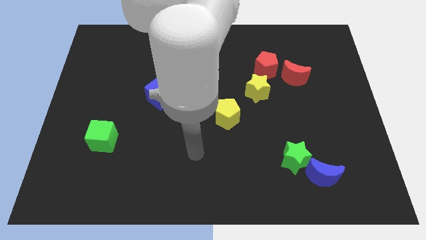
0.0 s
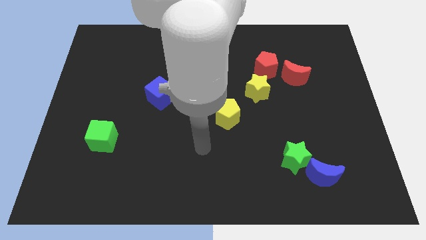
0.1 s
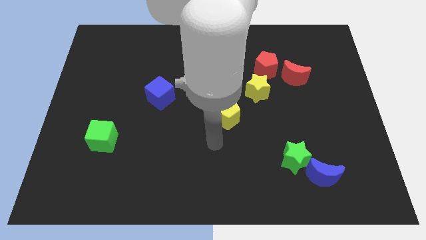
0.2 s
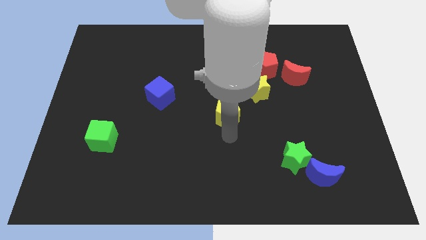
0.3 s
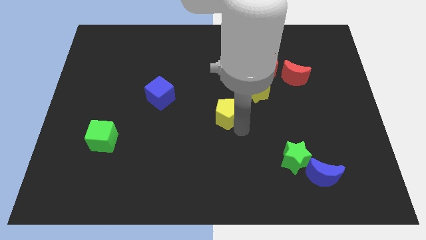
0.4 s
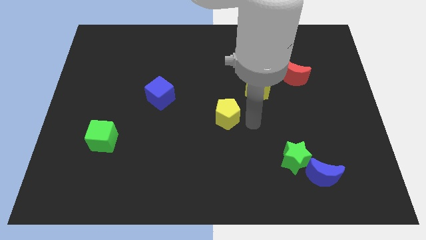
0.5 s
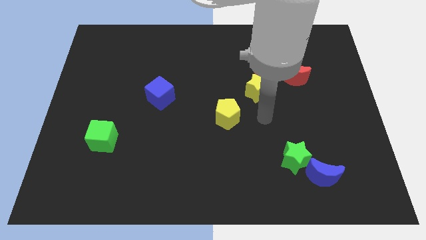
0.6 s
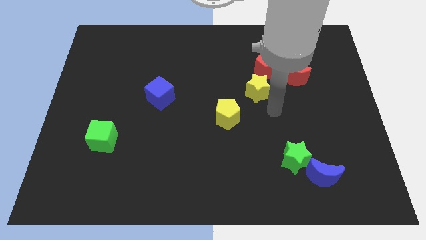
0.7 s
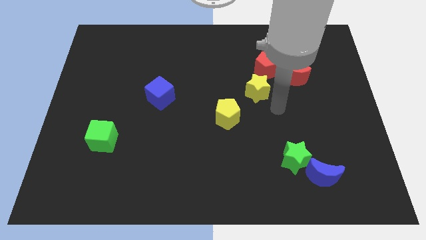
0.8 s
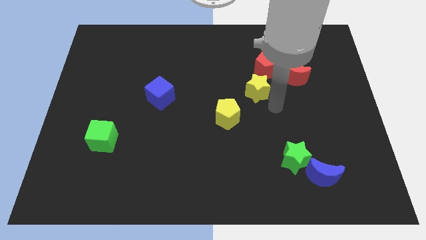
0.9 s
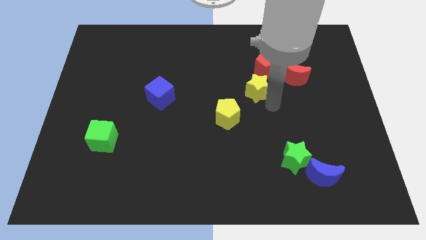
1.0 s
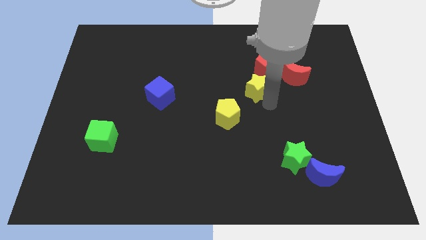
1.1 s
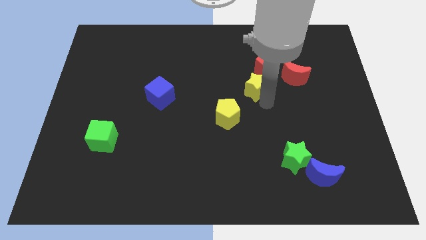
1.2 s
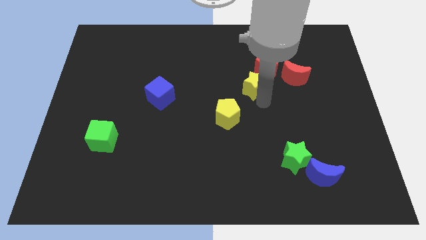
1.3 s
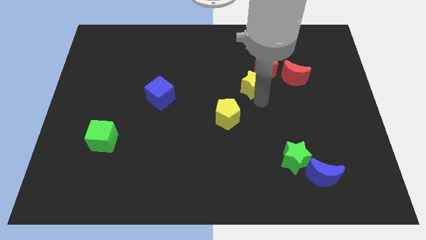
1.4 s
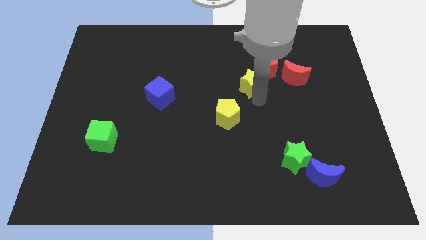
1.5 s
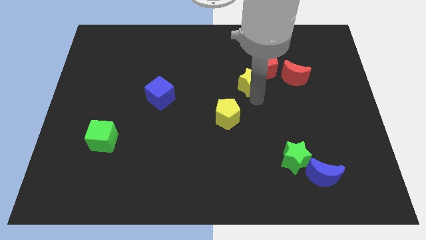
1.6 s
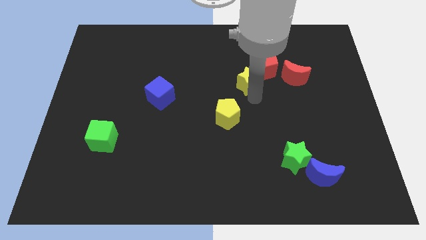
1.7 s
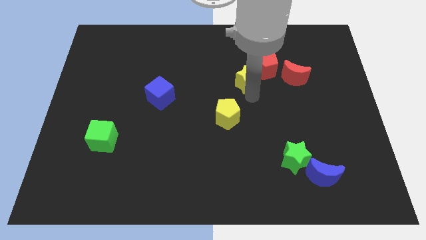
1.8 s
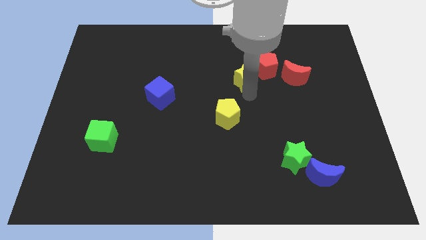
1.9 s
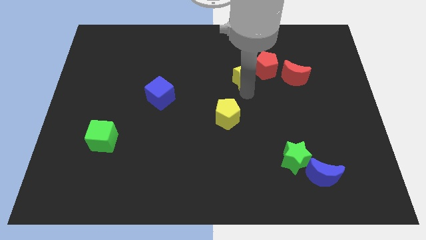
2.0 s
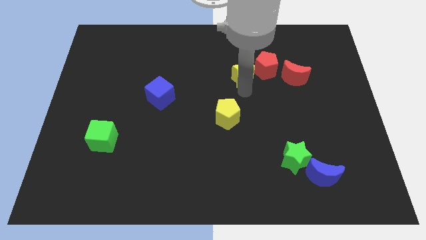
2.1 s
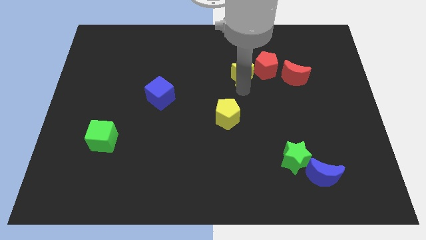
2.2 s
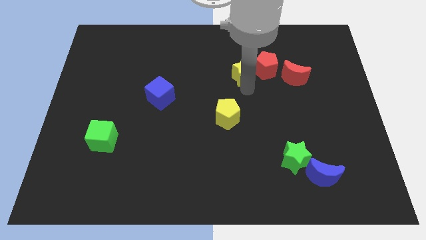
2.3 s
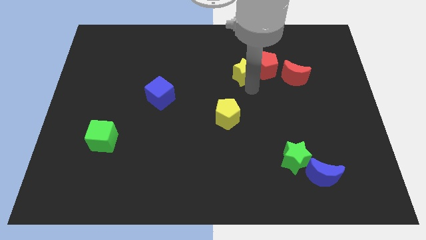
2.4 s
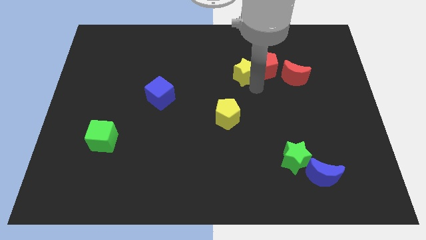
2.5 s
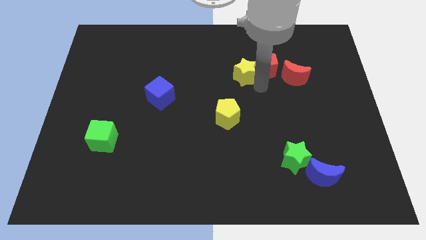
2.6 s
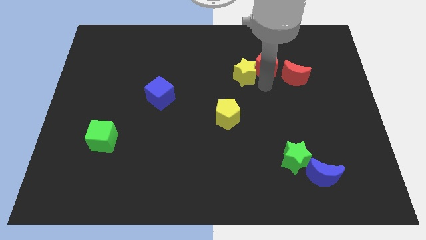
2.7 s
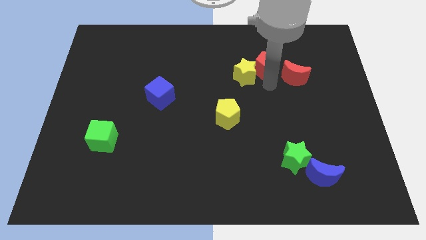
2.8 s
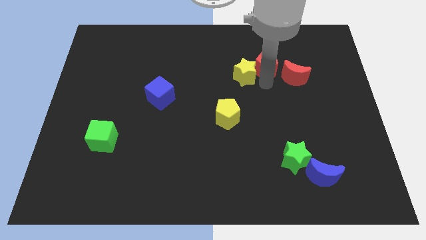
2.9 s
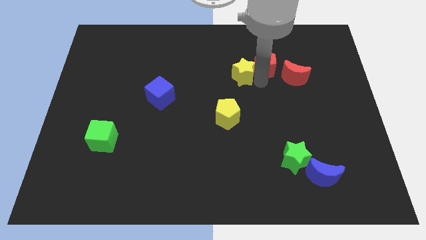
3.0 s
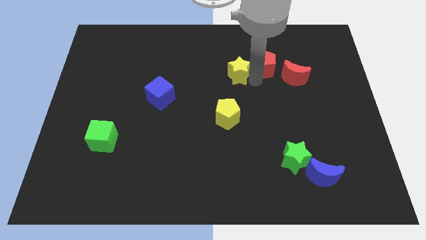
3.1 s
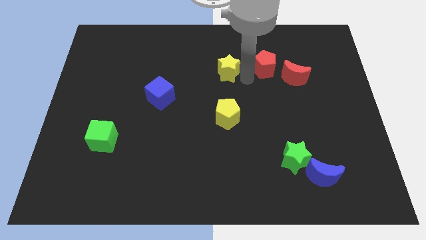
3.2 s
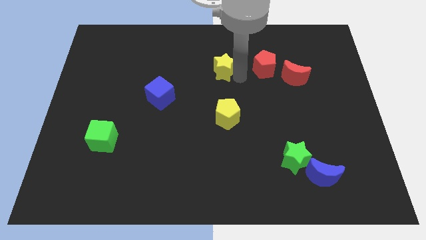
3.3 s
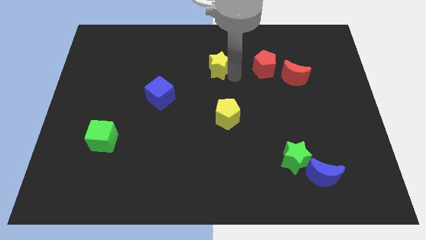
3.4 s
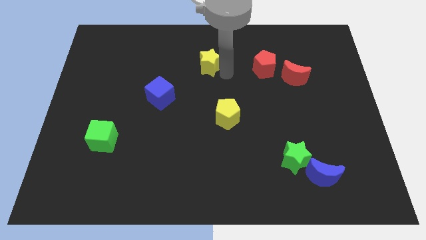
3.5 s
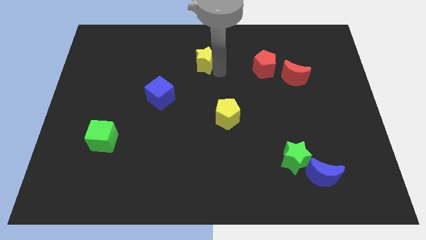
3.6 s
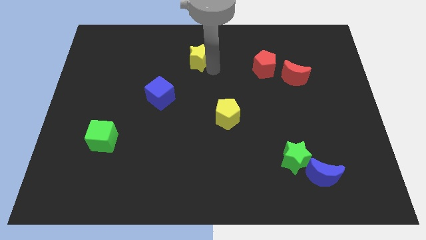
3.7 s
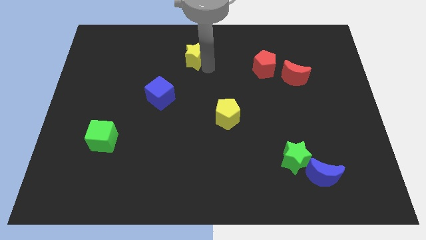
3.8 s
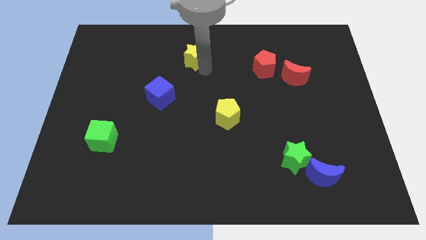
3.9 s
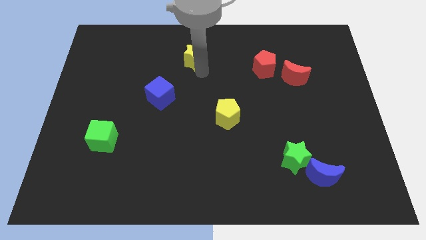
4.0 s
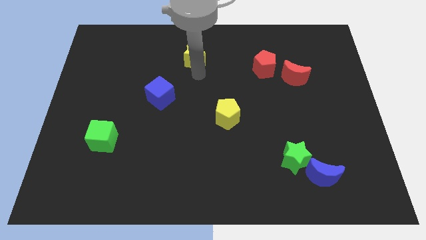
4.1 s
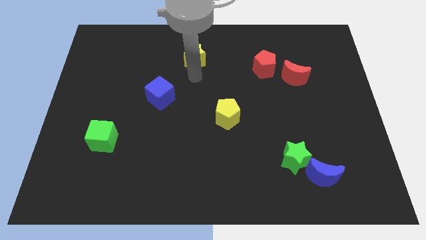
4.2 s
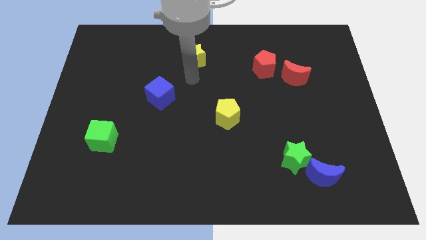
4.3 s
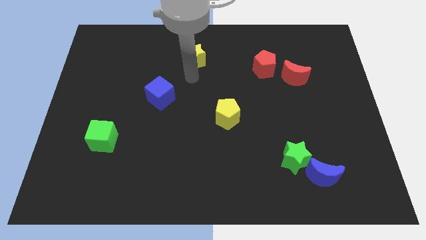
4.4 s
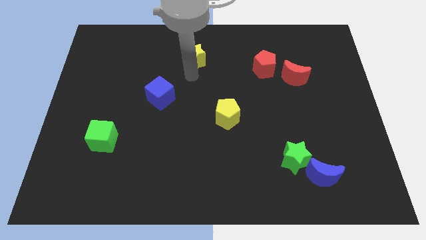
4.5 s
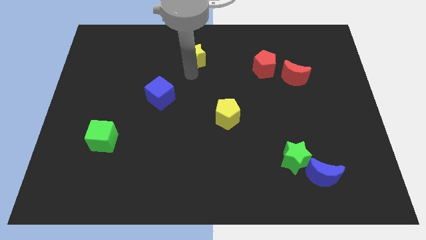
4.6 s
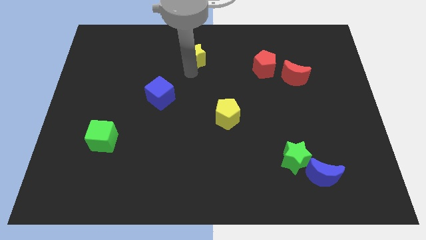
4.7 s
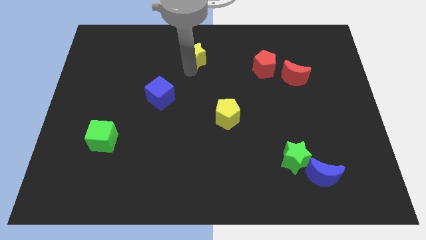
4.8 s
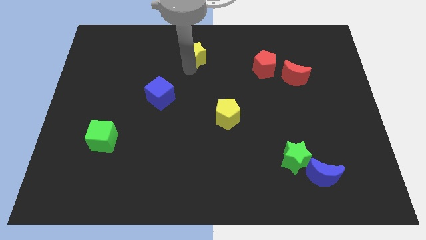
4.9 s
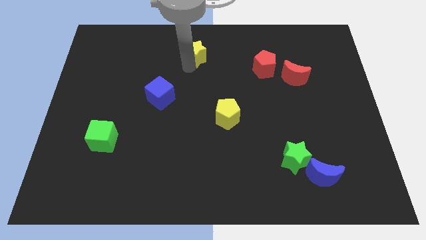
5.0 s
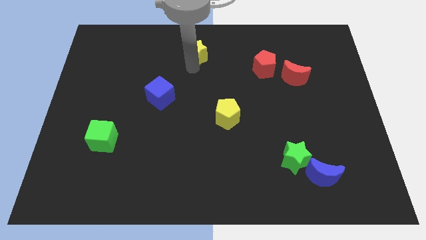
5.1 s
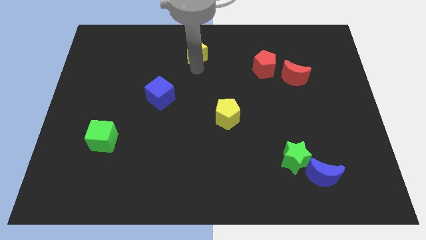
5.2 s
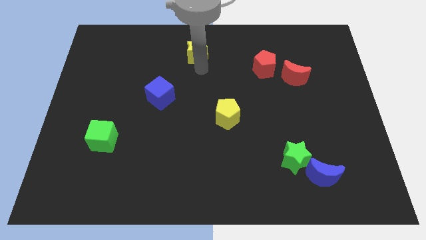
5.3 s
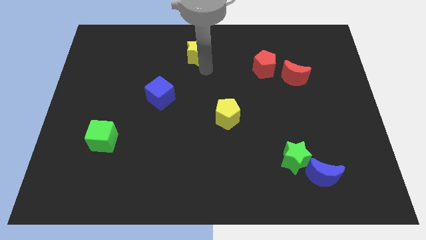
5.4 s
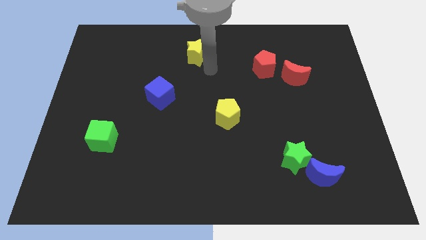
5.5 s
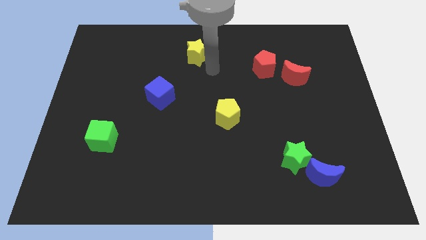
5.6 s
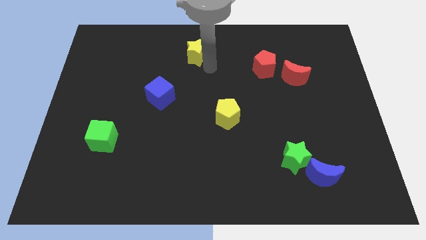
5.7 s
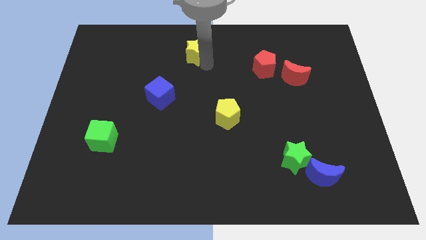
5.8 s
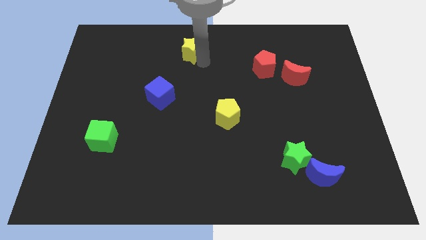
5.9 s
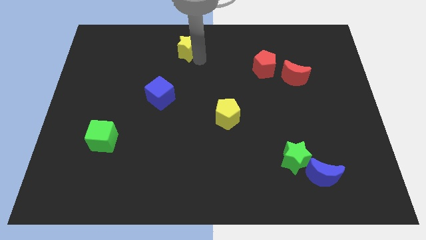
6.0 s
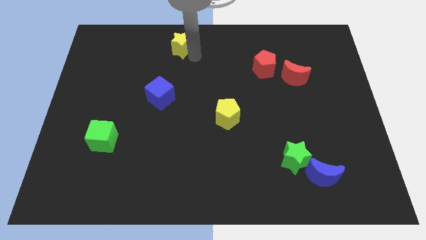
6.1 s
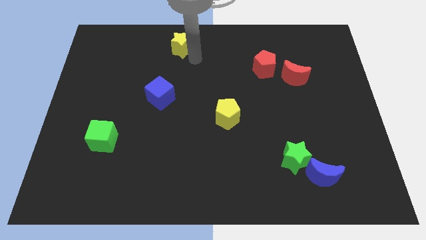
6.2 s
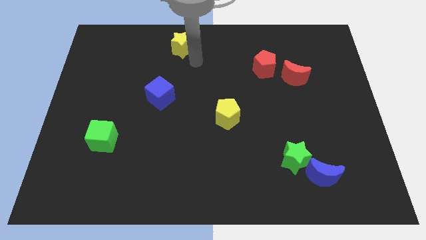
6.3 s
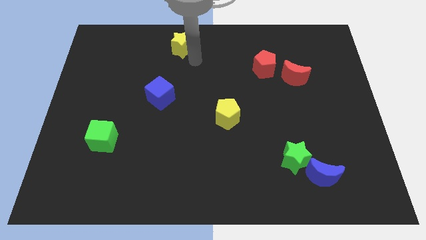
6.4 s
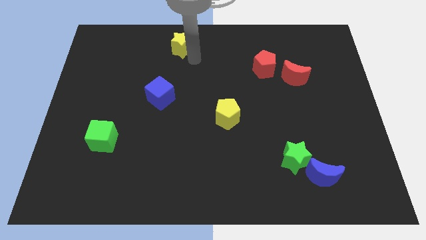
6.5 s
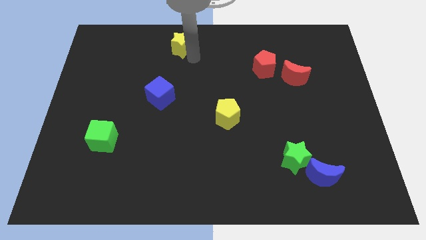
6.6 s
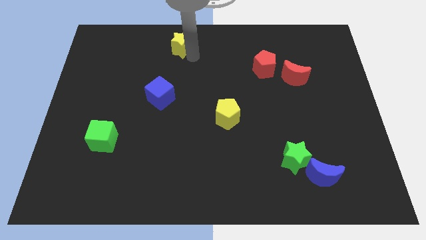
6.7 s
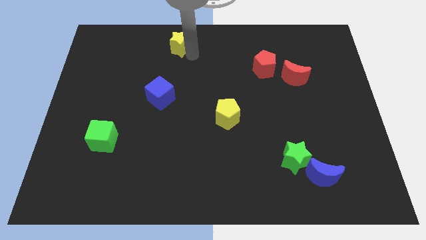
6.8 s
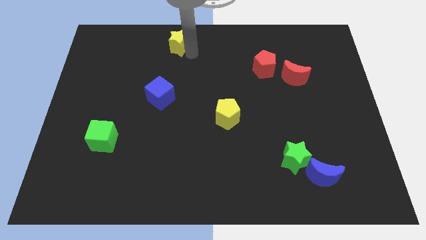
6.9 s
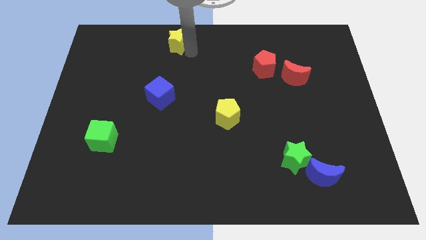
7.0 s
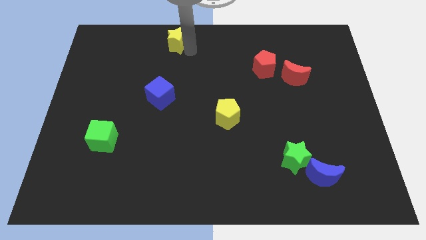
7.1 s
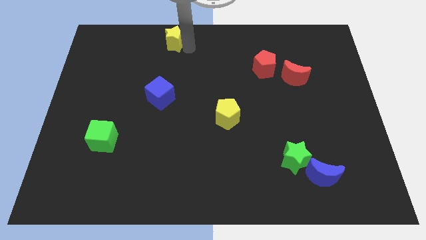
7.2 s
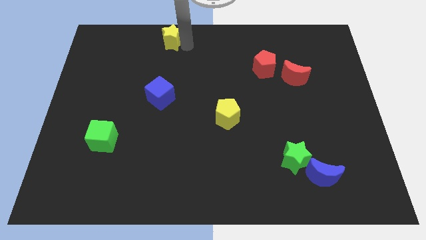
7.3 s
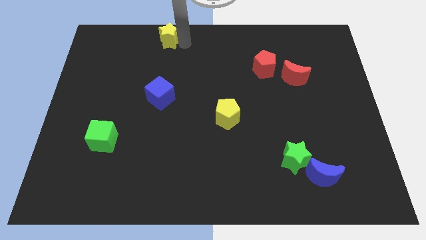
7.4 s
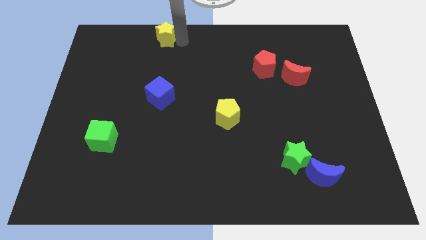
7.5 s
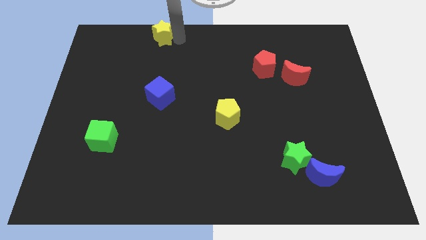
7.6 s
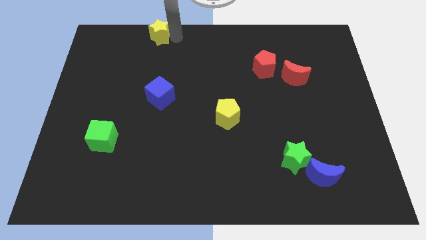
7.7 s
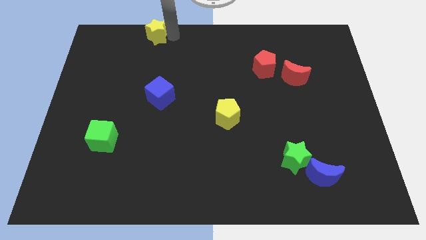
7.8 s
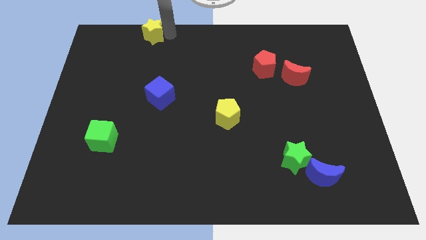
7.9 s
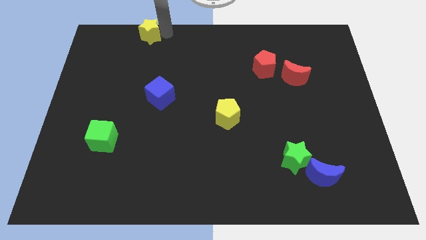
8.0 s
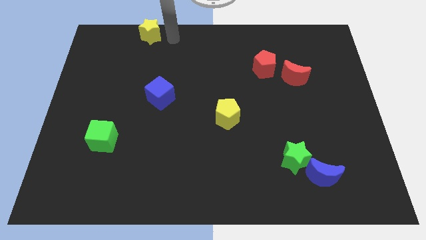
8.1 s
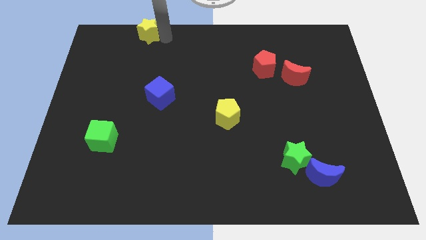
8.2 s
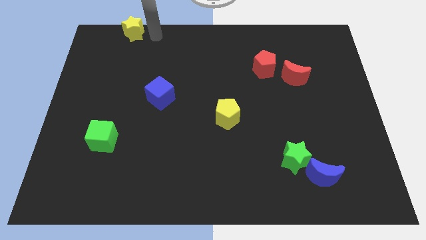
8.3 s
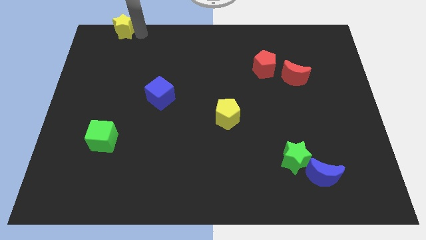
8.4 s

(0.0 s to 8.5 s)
push the yellow star to the upper left corner
